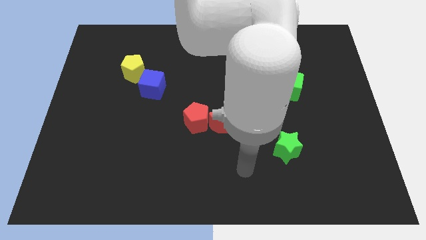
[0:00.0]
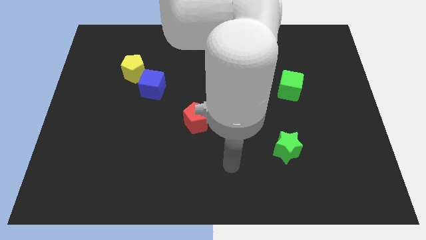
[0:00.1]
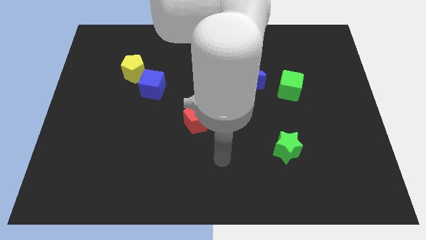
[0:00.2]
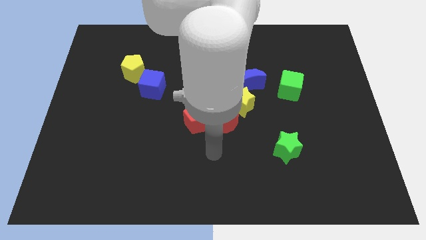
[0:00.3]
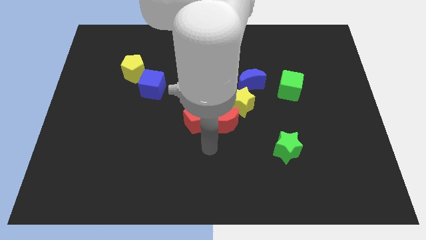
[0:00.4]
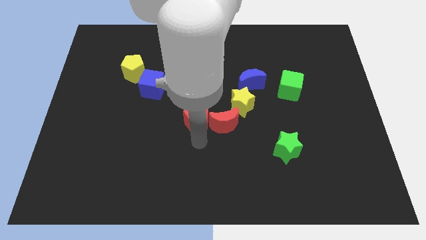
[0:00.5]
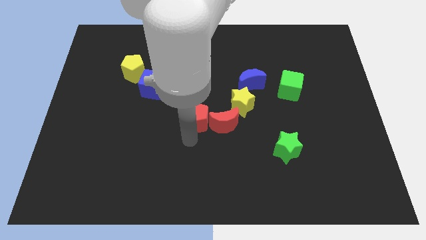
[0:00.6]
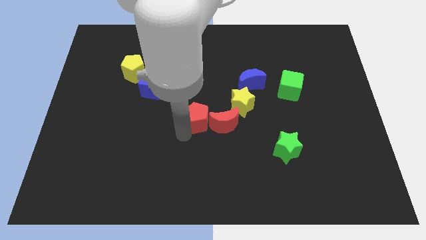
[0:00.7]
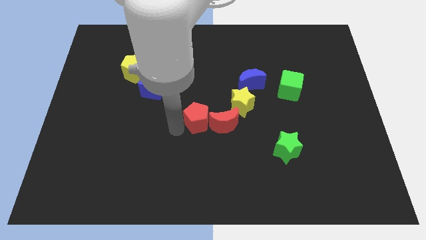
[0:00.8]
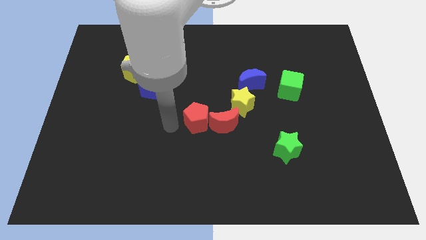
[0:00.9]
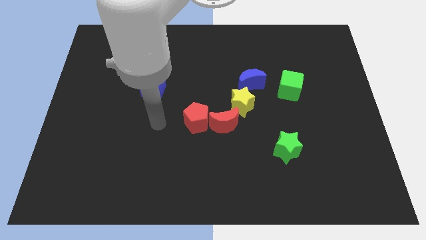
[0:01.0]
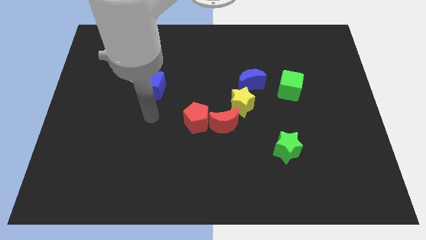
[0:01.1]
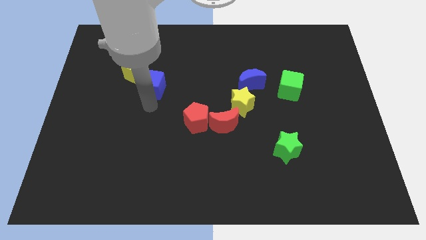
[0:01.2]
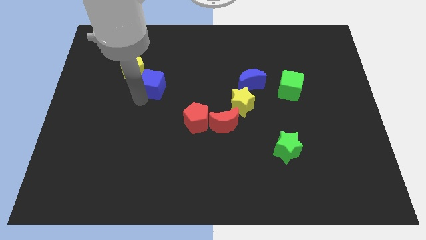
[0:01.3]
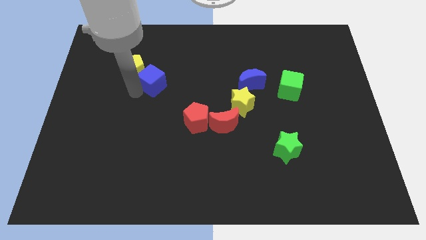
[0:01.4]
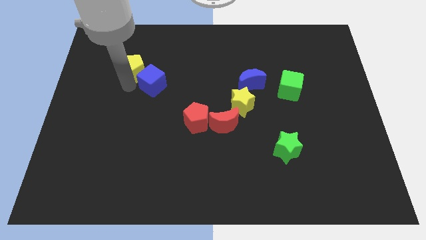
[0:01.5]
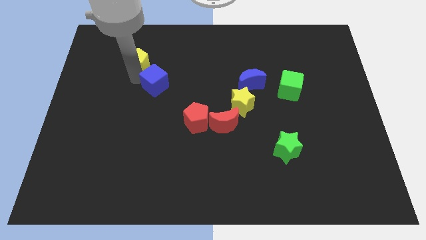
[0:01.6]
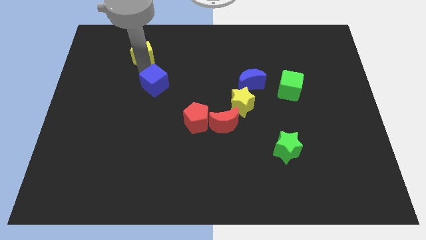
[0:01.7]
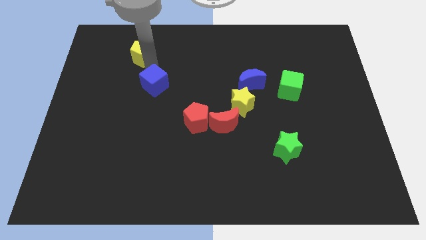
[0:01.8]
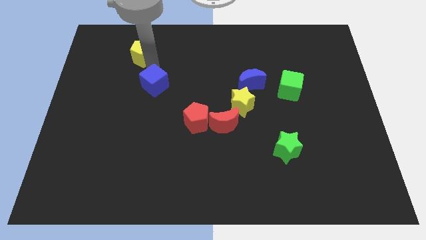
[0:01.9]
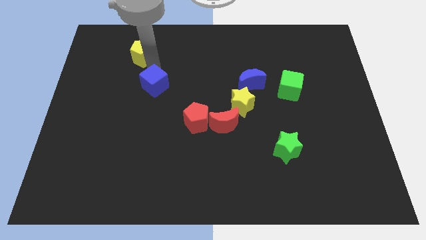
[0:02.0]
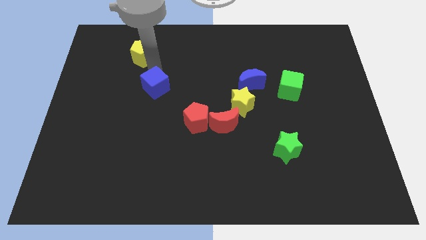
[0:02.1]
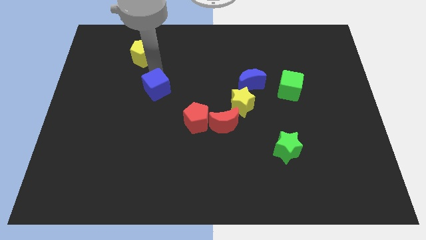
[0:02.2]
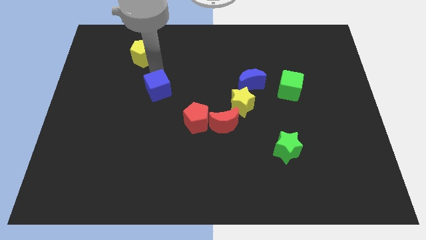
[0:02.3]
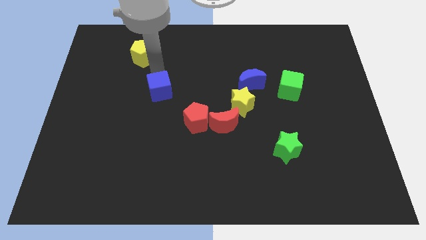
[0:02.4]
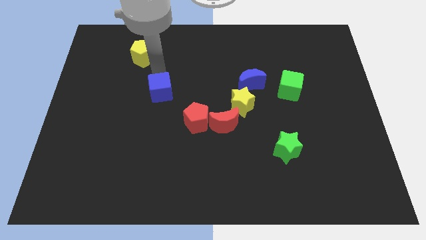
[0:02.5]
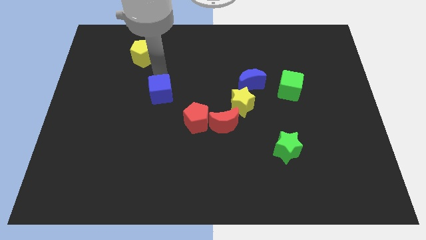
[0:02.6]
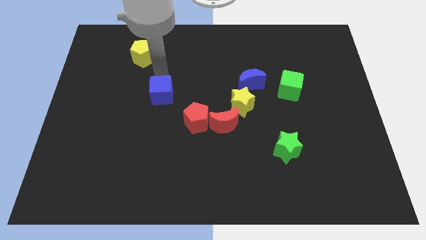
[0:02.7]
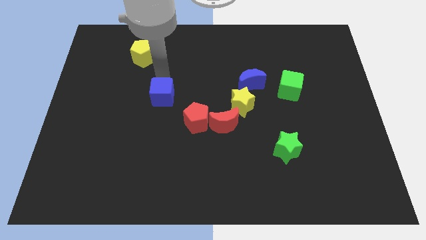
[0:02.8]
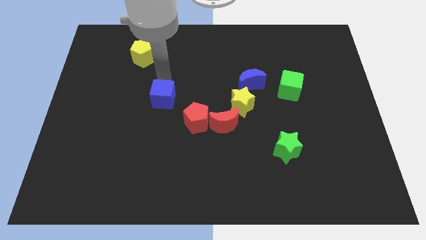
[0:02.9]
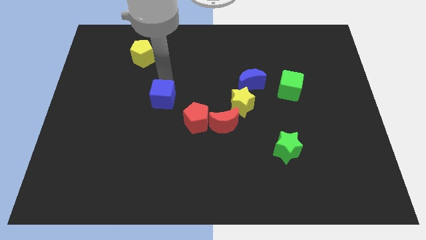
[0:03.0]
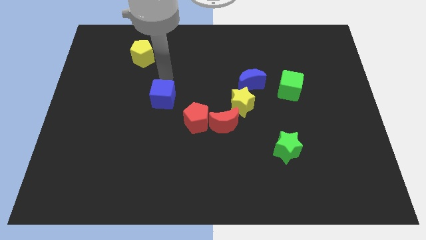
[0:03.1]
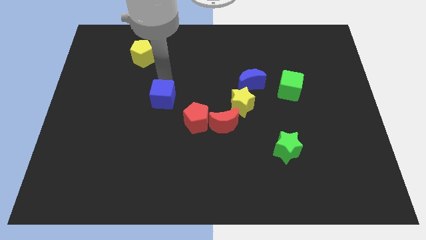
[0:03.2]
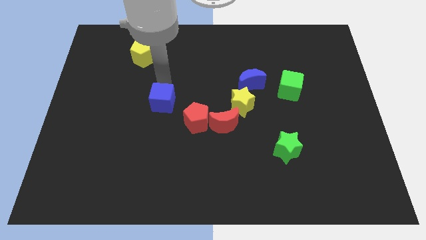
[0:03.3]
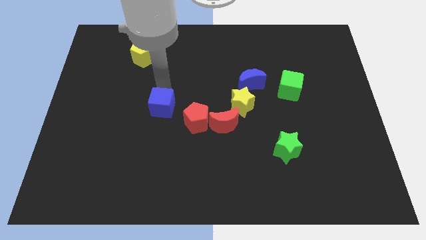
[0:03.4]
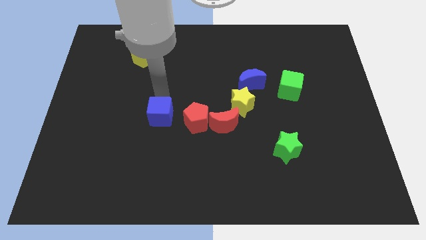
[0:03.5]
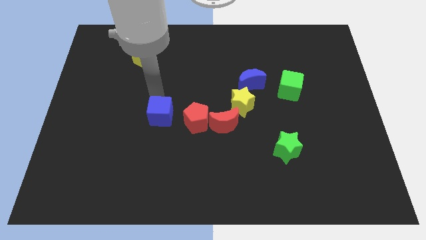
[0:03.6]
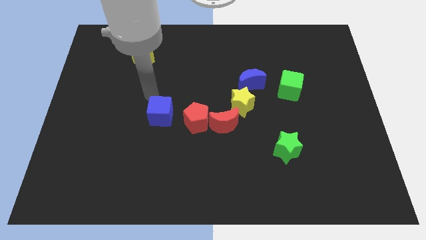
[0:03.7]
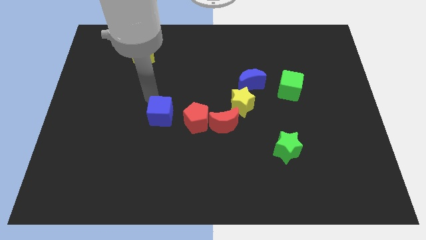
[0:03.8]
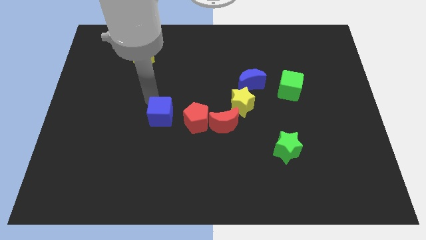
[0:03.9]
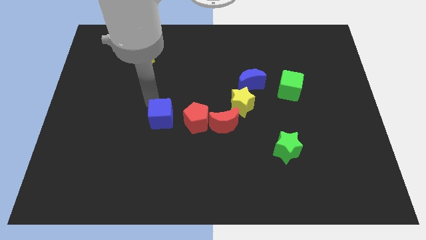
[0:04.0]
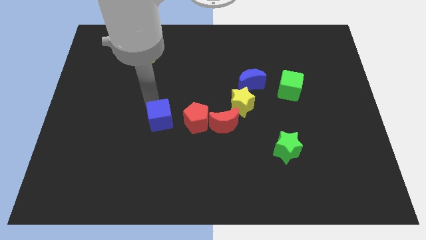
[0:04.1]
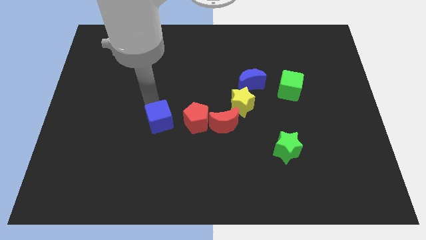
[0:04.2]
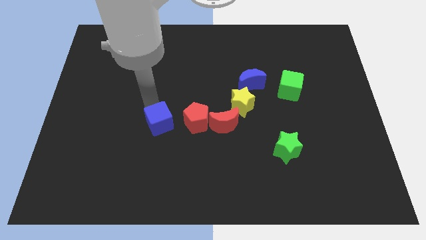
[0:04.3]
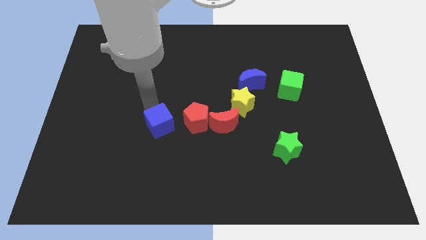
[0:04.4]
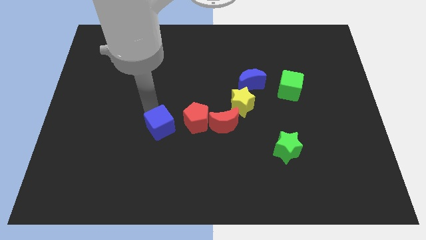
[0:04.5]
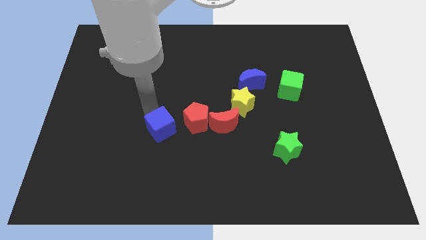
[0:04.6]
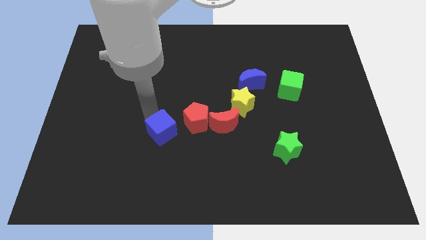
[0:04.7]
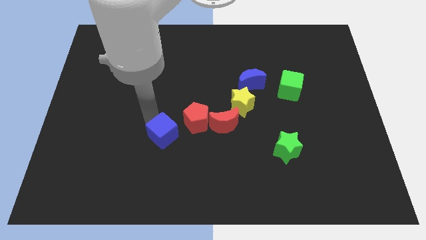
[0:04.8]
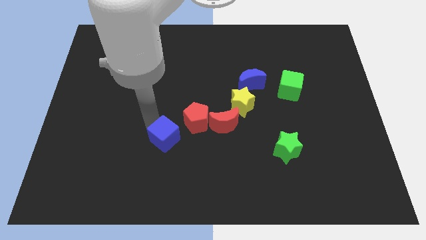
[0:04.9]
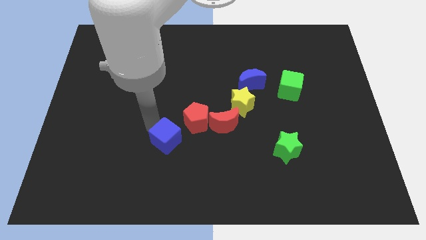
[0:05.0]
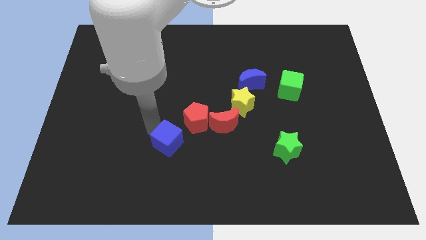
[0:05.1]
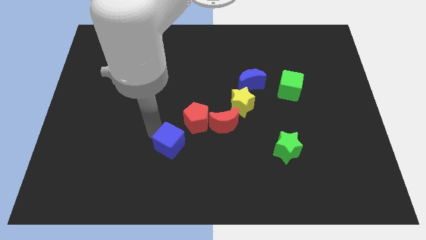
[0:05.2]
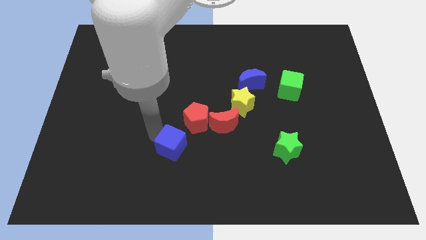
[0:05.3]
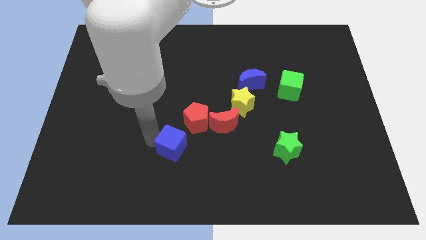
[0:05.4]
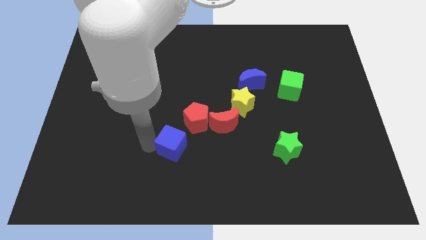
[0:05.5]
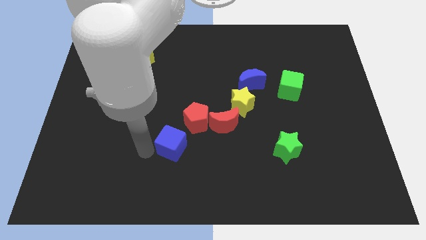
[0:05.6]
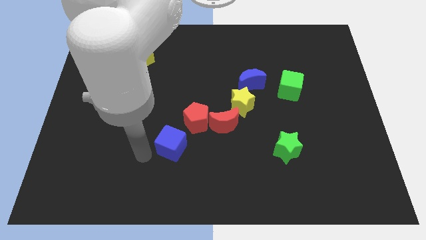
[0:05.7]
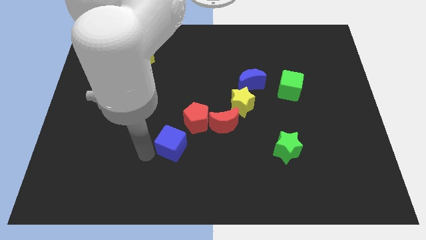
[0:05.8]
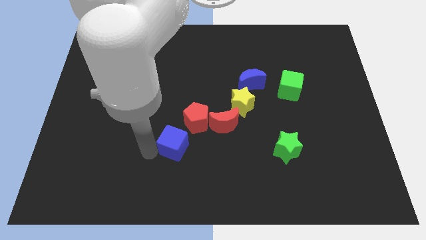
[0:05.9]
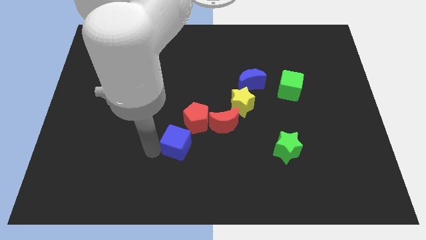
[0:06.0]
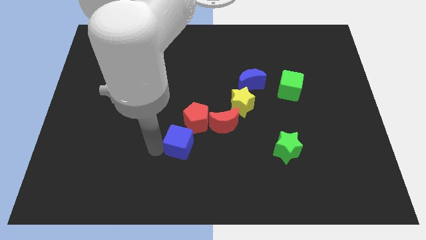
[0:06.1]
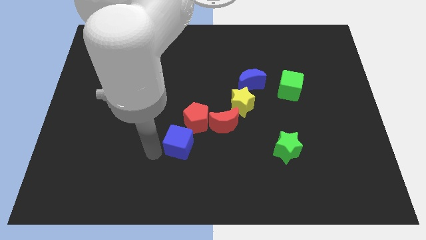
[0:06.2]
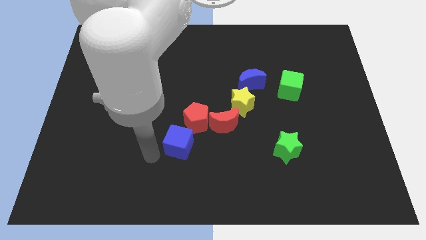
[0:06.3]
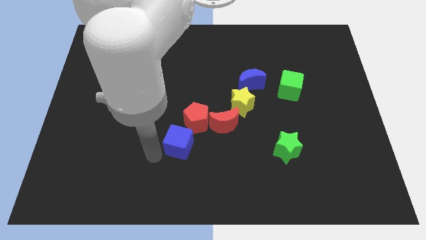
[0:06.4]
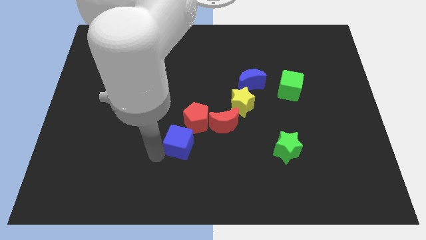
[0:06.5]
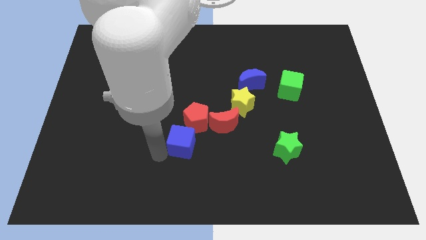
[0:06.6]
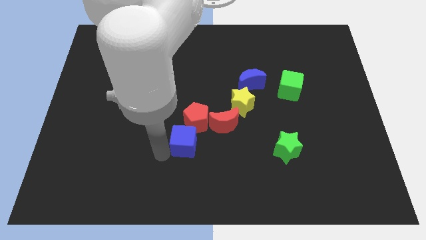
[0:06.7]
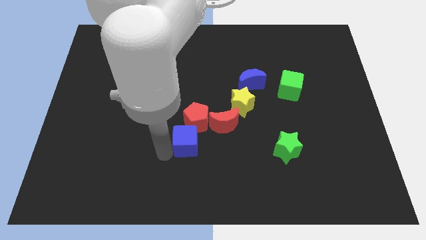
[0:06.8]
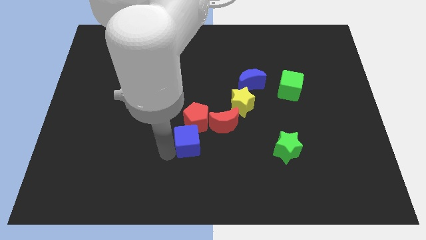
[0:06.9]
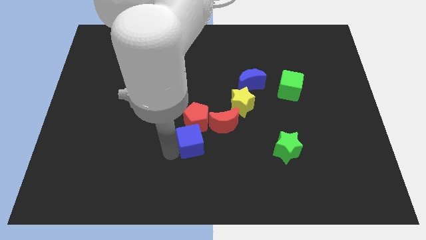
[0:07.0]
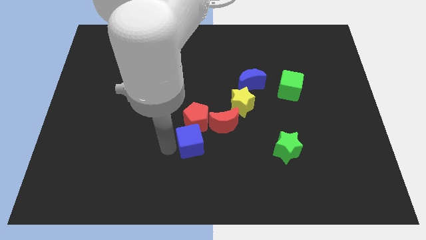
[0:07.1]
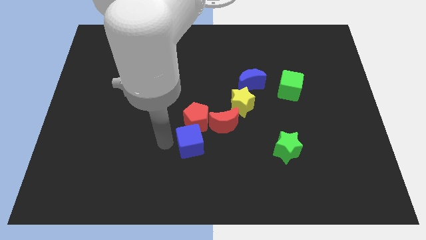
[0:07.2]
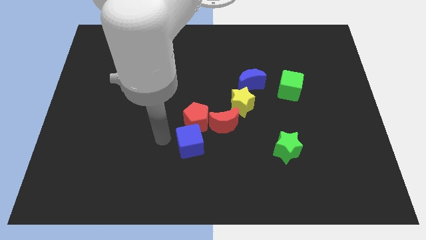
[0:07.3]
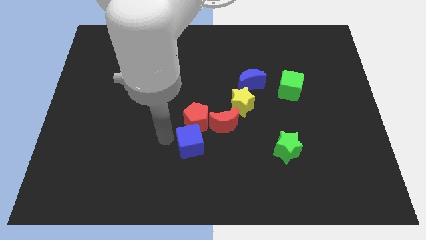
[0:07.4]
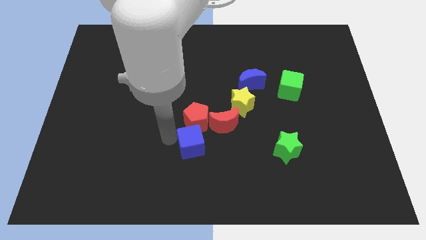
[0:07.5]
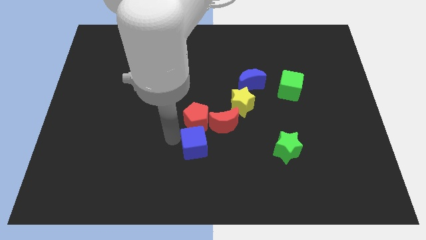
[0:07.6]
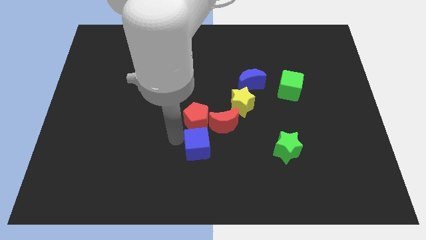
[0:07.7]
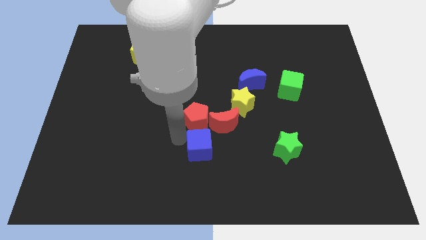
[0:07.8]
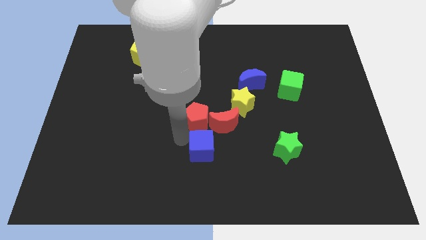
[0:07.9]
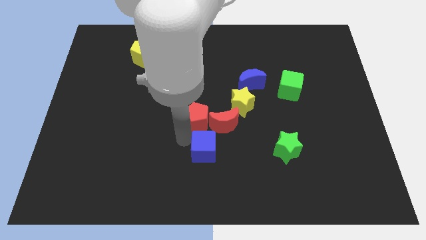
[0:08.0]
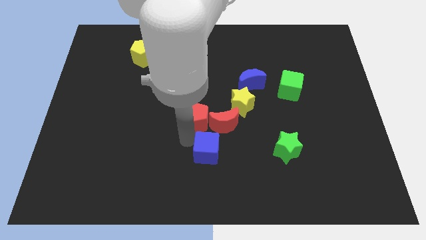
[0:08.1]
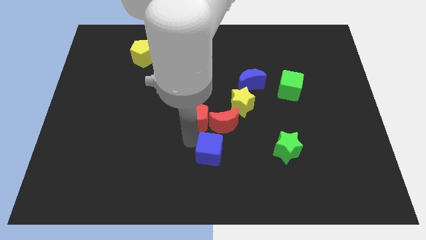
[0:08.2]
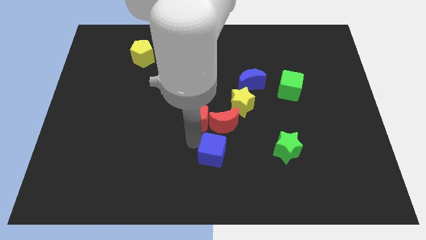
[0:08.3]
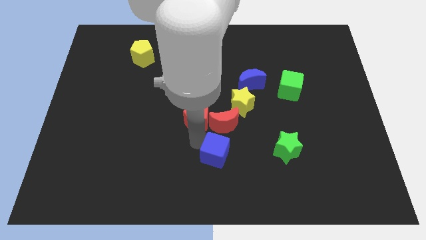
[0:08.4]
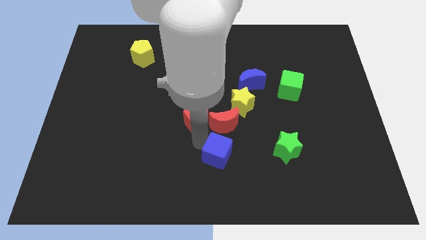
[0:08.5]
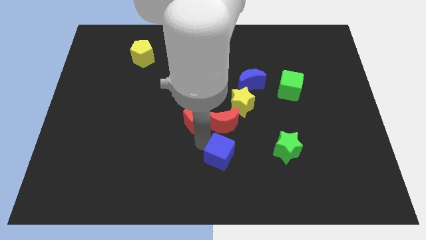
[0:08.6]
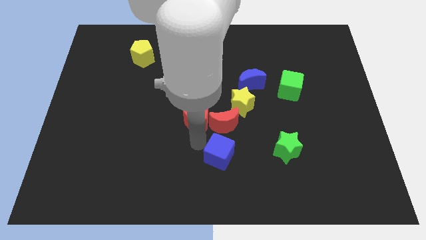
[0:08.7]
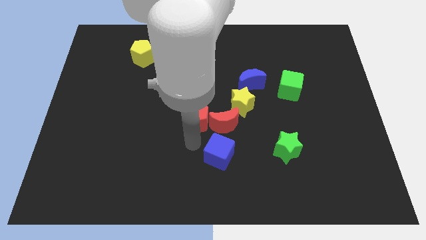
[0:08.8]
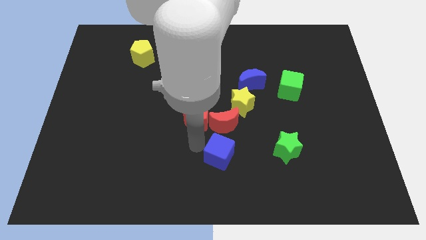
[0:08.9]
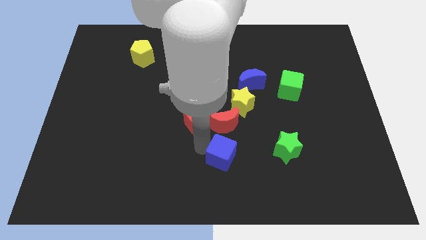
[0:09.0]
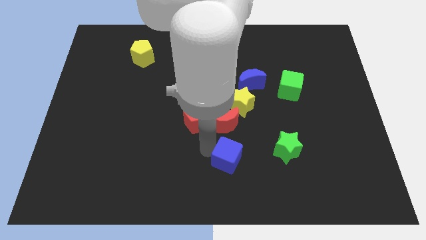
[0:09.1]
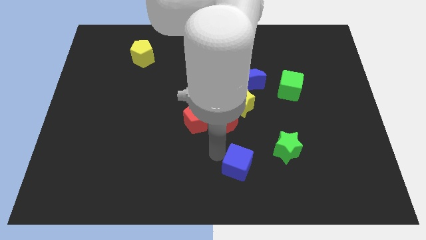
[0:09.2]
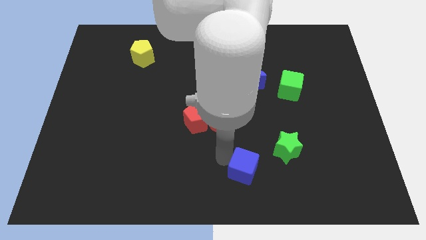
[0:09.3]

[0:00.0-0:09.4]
slide the blue cube to the bottom left of the green star
